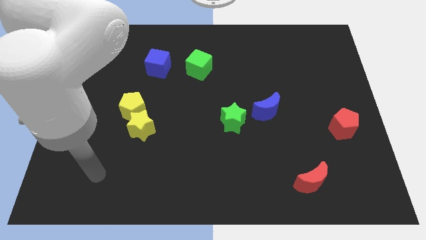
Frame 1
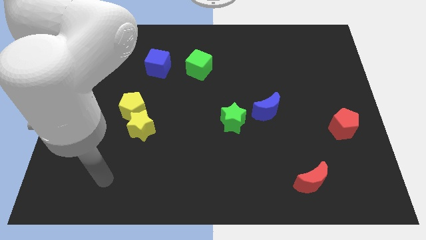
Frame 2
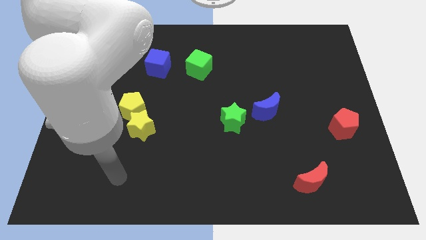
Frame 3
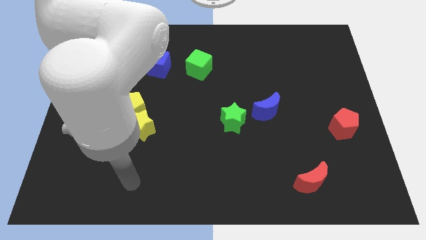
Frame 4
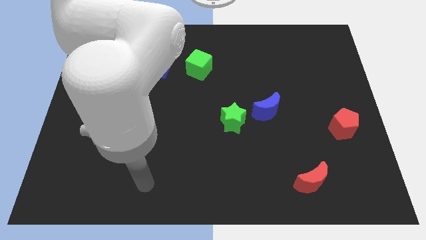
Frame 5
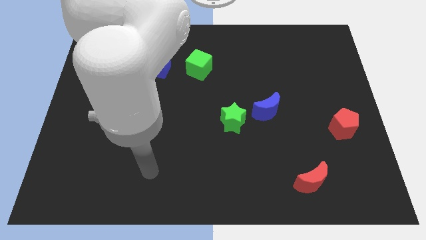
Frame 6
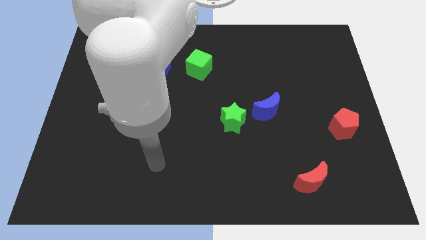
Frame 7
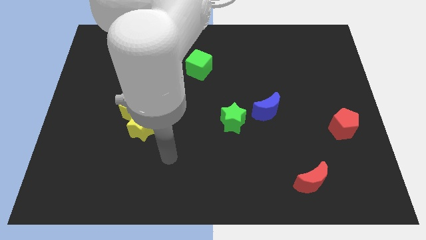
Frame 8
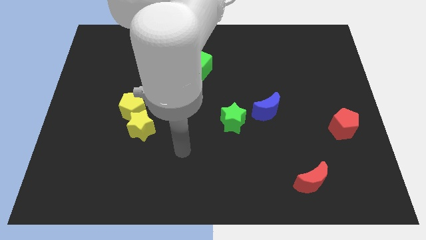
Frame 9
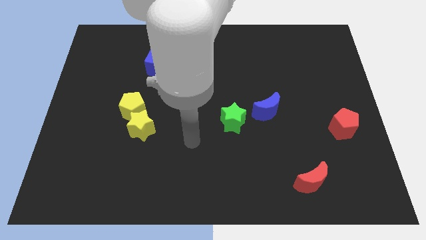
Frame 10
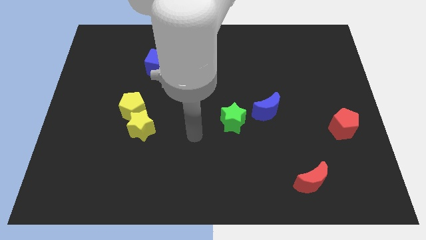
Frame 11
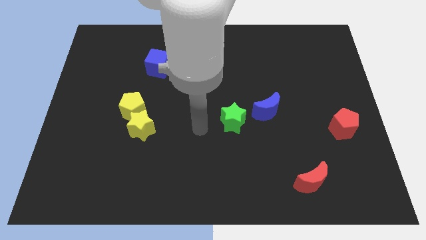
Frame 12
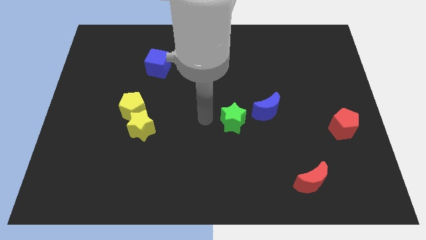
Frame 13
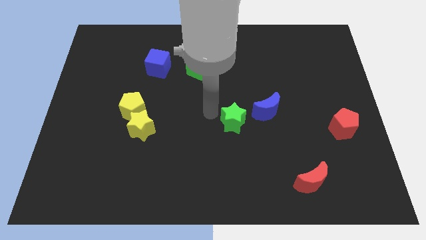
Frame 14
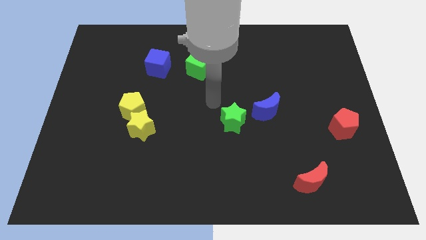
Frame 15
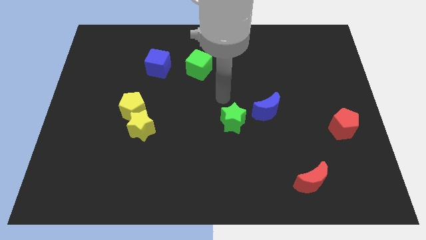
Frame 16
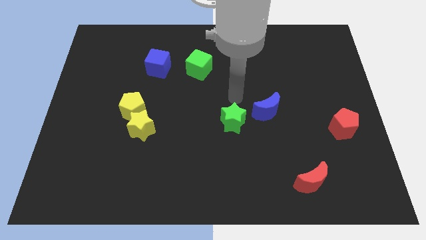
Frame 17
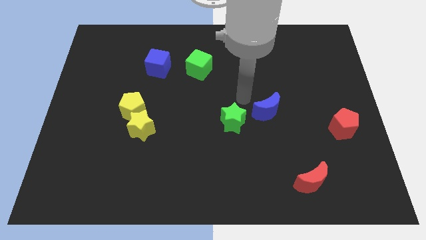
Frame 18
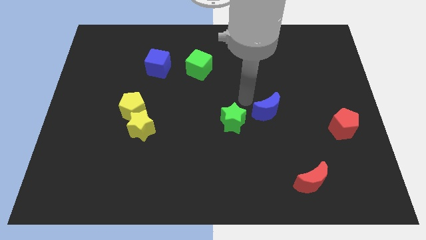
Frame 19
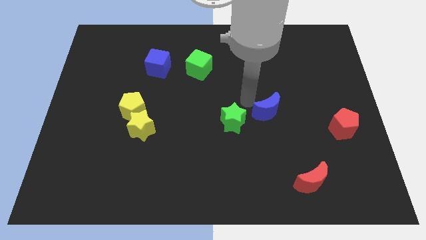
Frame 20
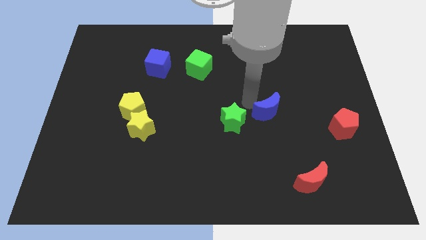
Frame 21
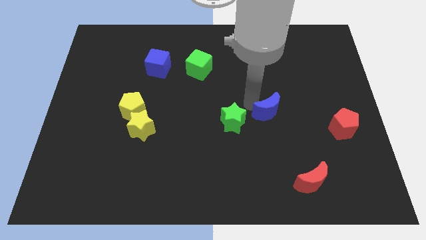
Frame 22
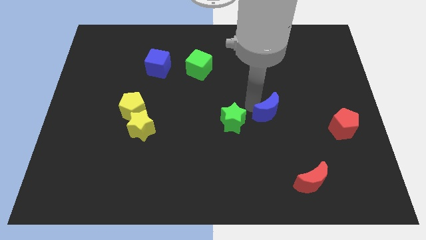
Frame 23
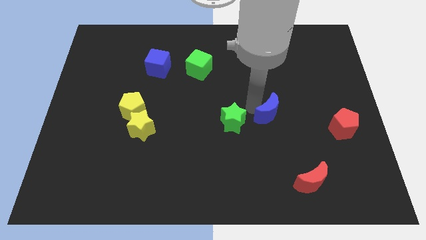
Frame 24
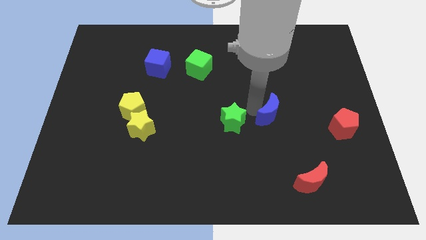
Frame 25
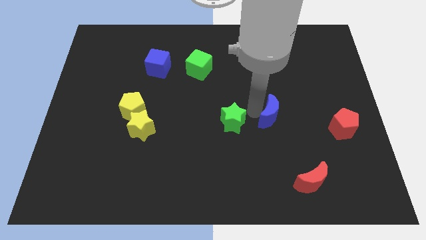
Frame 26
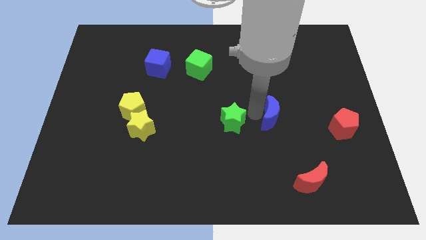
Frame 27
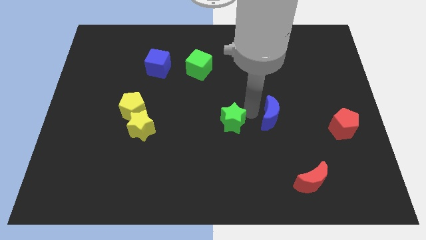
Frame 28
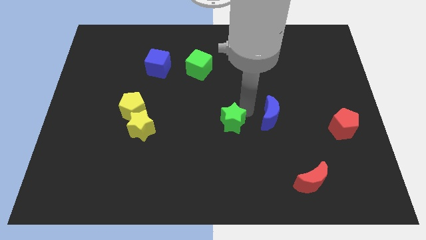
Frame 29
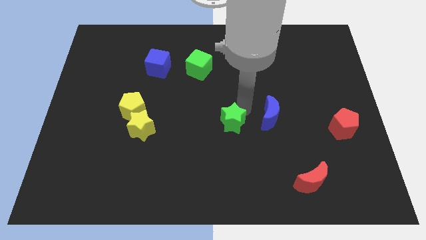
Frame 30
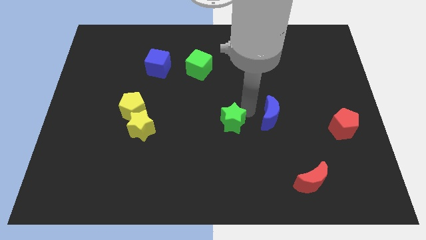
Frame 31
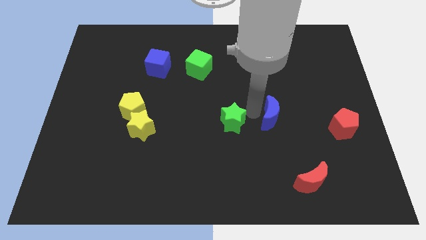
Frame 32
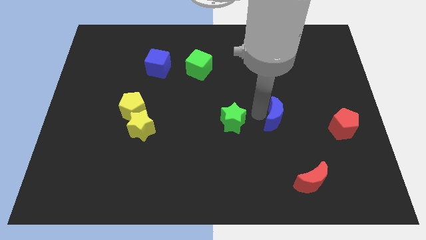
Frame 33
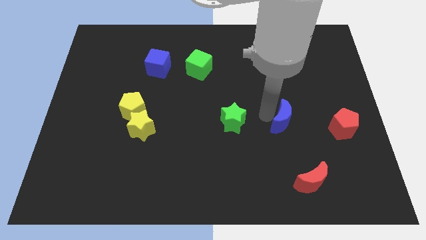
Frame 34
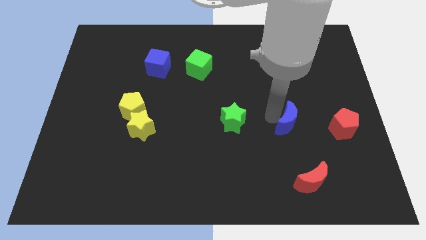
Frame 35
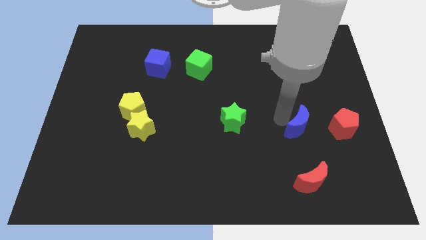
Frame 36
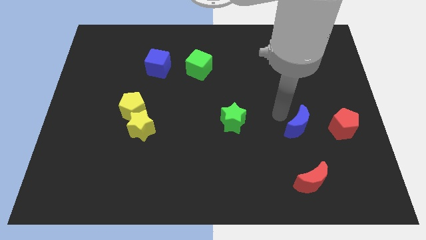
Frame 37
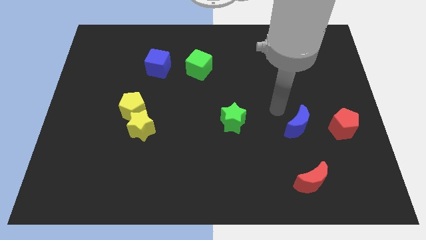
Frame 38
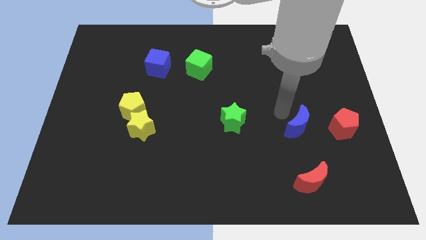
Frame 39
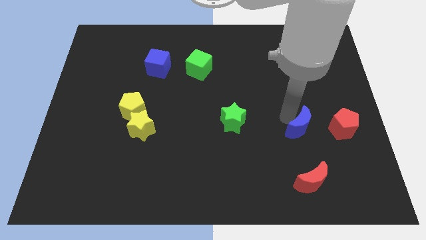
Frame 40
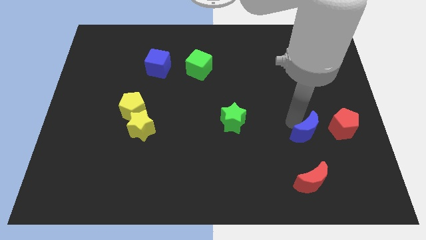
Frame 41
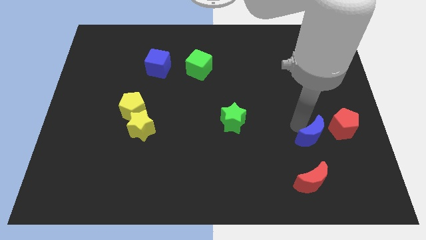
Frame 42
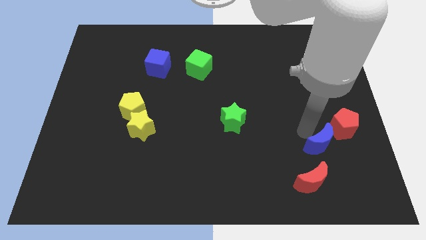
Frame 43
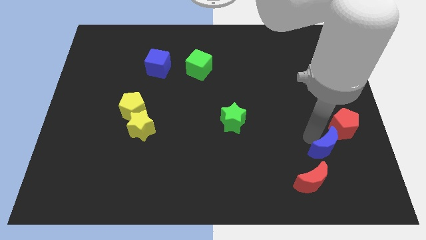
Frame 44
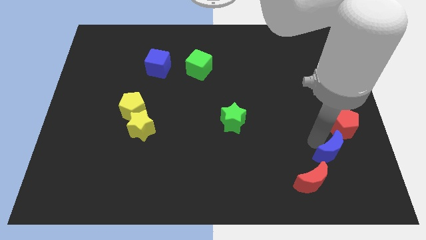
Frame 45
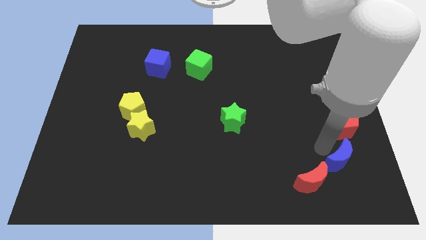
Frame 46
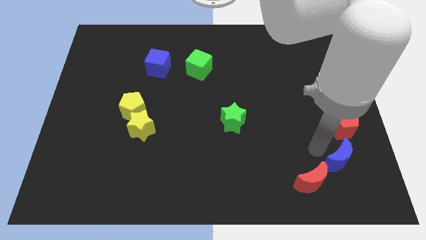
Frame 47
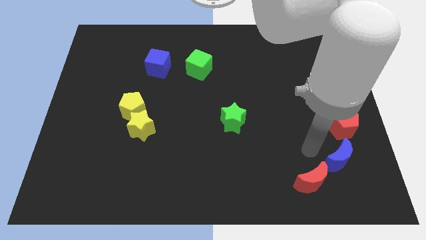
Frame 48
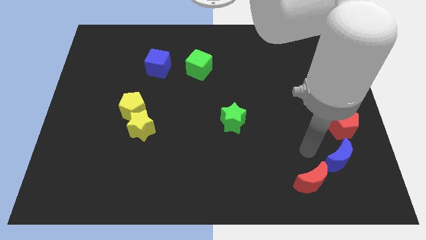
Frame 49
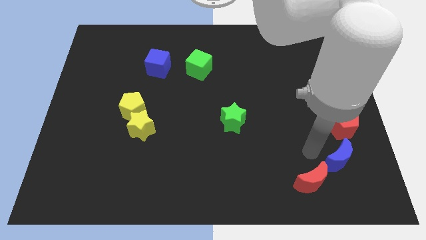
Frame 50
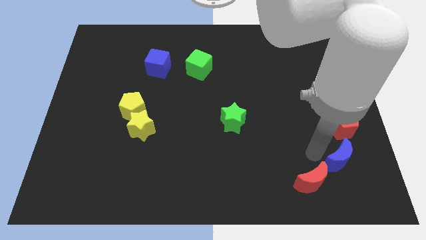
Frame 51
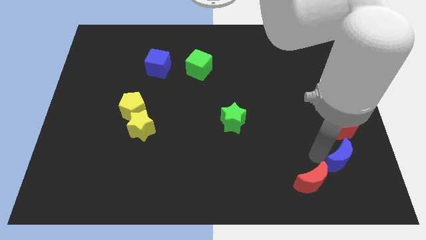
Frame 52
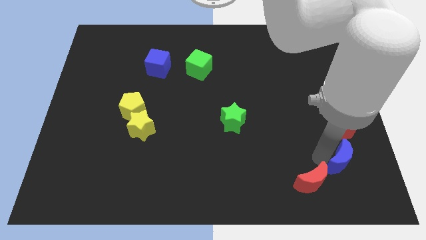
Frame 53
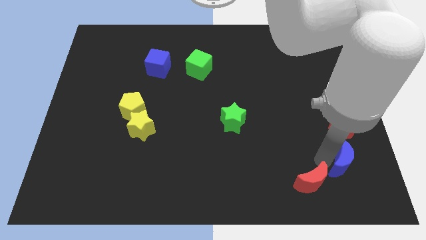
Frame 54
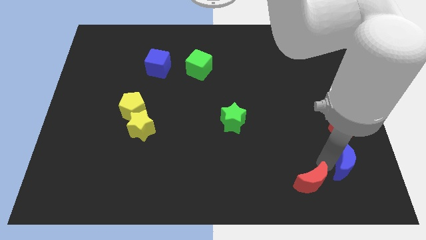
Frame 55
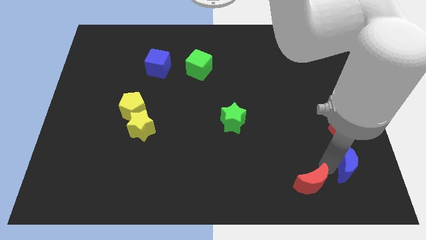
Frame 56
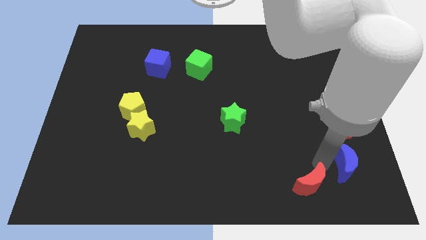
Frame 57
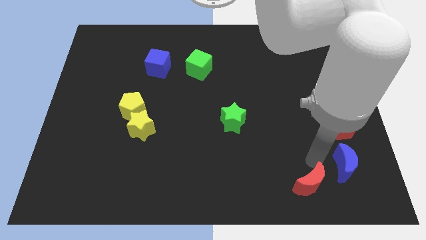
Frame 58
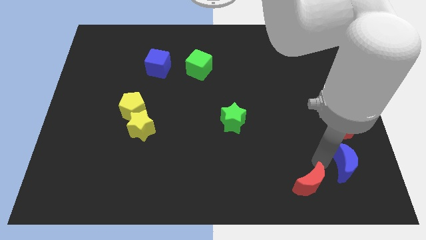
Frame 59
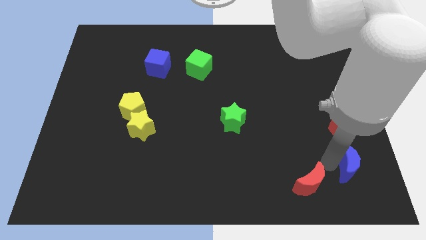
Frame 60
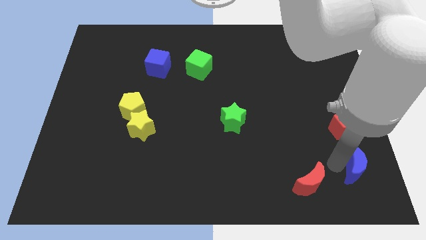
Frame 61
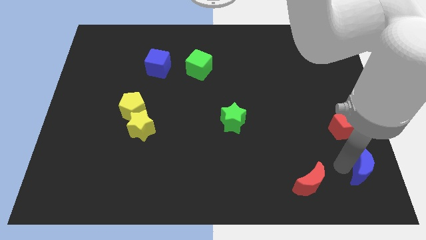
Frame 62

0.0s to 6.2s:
put the blue moon to the bottom right corner
